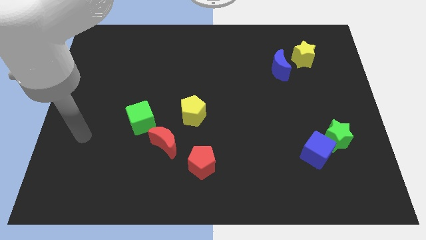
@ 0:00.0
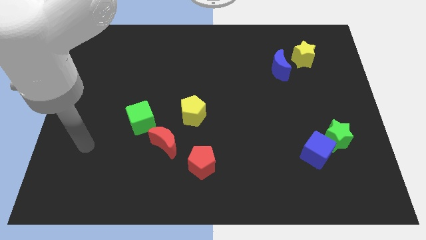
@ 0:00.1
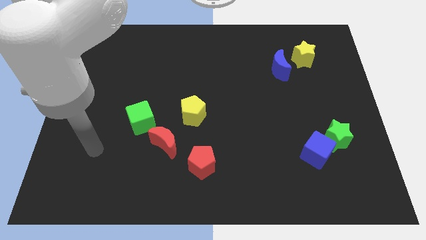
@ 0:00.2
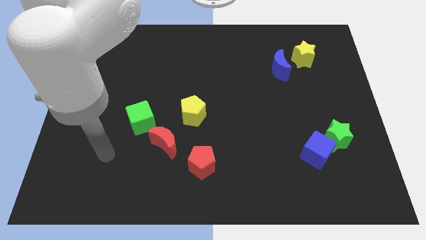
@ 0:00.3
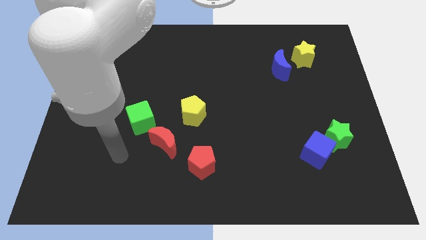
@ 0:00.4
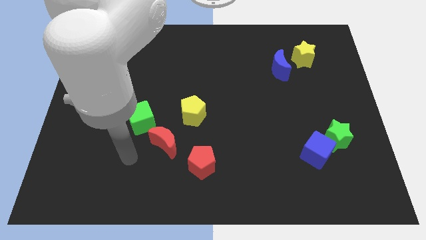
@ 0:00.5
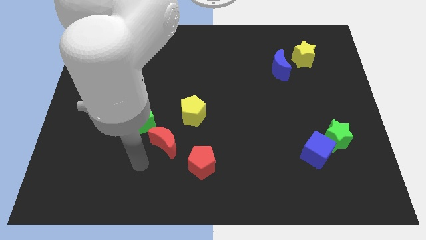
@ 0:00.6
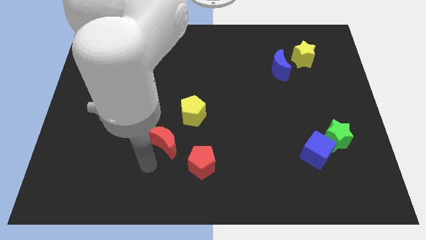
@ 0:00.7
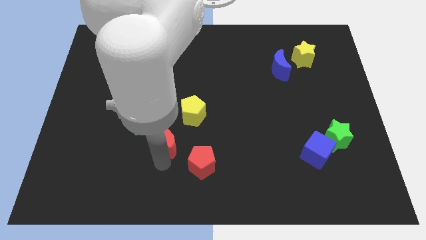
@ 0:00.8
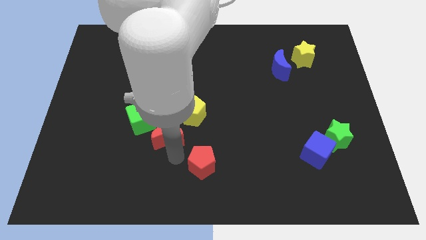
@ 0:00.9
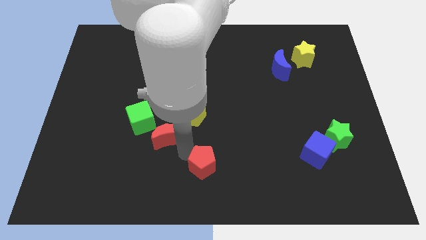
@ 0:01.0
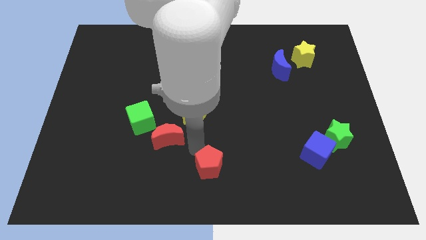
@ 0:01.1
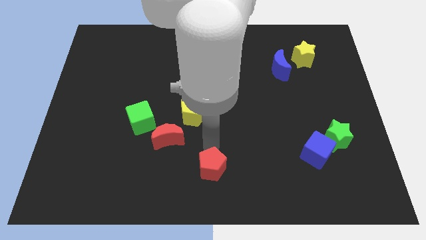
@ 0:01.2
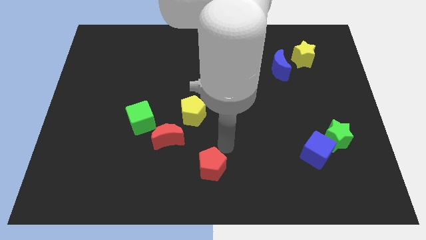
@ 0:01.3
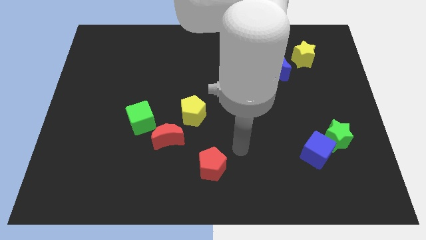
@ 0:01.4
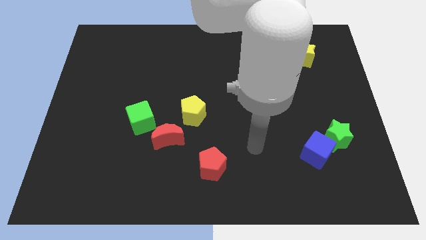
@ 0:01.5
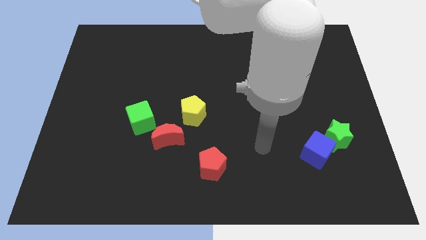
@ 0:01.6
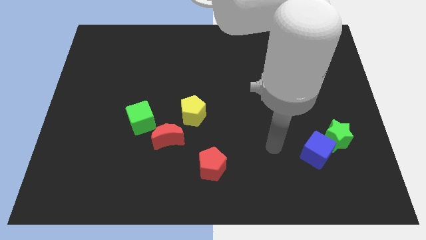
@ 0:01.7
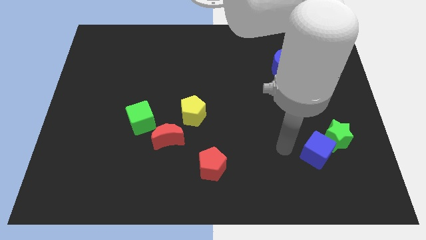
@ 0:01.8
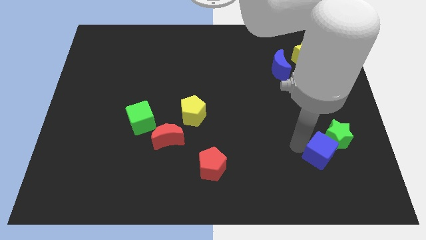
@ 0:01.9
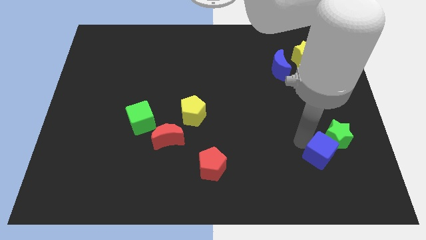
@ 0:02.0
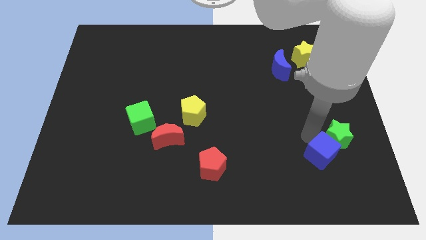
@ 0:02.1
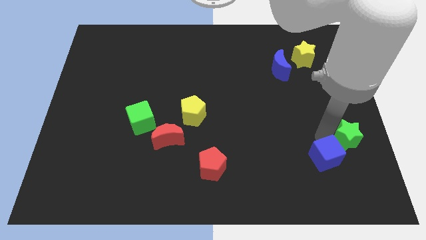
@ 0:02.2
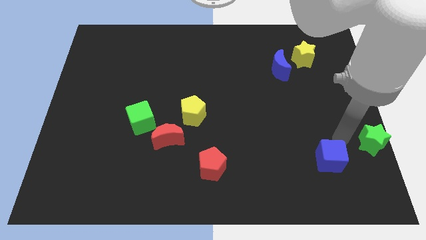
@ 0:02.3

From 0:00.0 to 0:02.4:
pull the blue cube apart from the green star

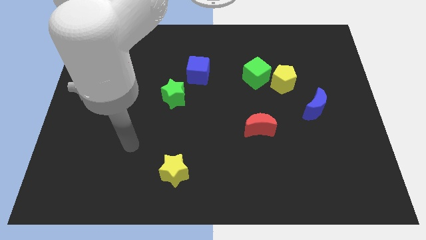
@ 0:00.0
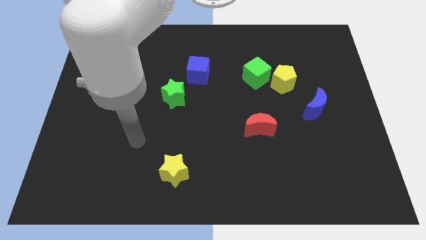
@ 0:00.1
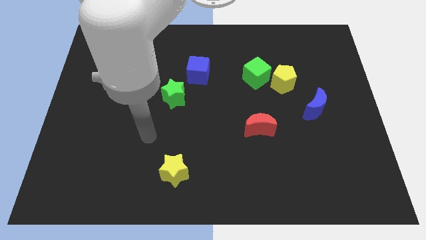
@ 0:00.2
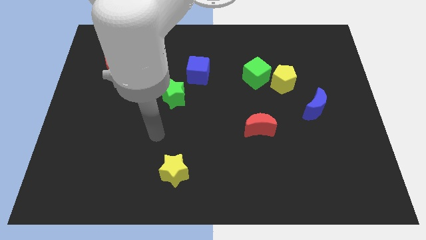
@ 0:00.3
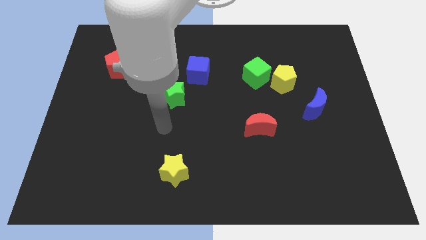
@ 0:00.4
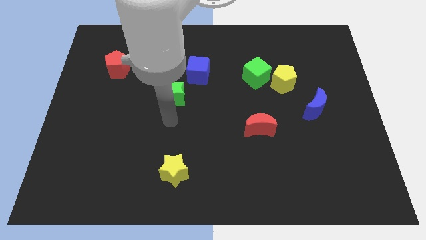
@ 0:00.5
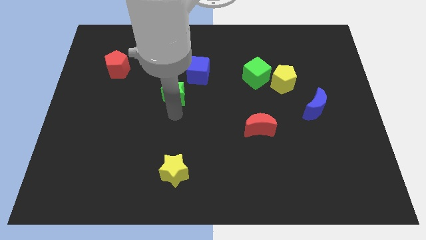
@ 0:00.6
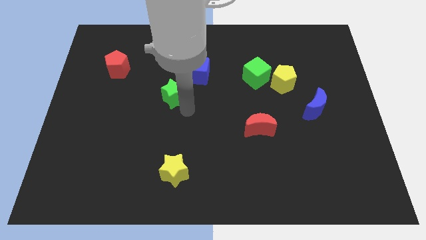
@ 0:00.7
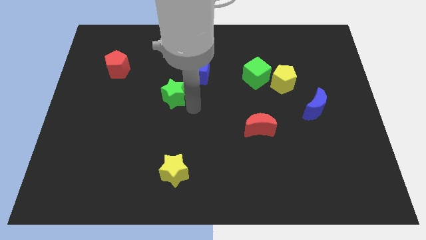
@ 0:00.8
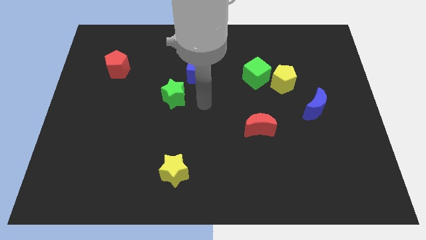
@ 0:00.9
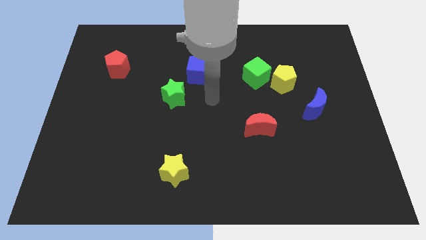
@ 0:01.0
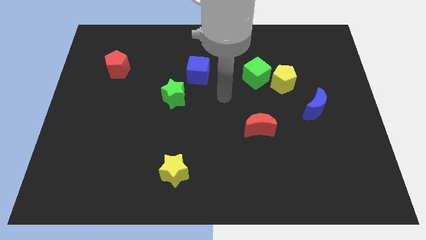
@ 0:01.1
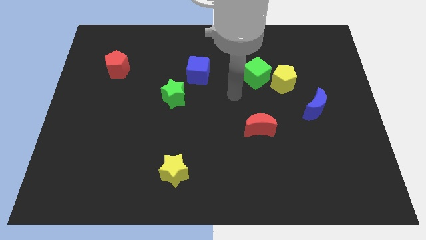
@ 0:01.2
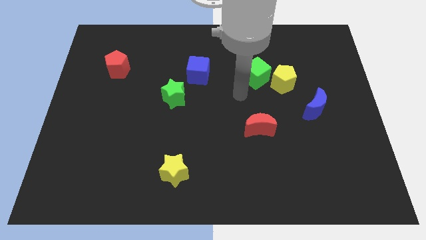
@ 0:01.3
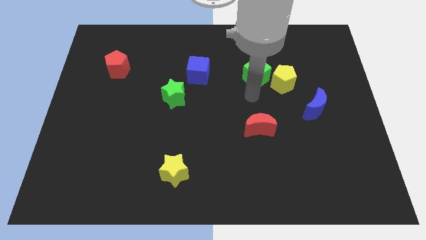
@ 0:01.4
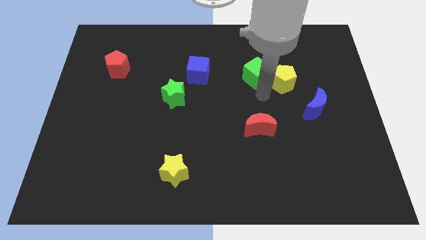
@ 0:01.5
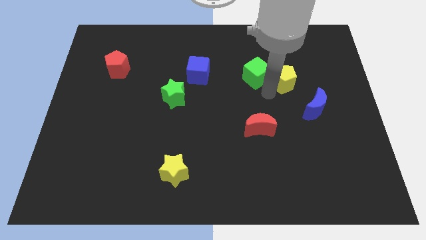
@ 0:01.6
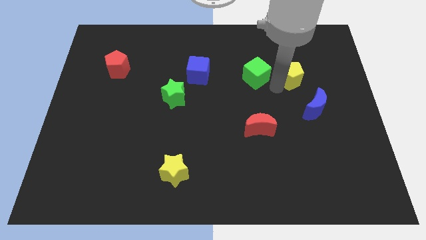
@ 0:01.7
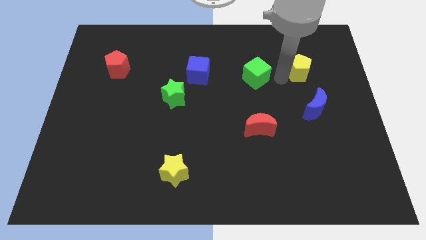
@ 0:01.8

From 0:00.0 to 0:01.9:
move the green cube away from the yellow pentagon

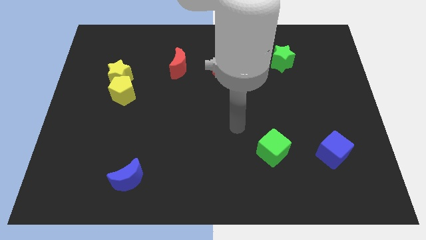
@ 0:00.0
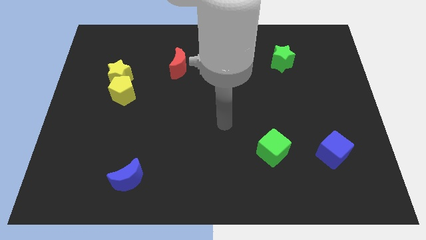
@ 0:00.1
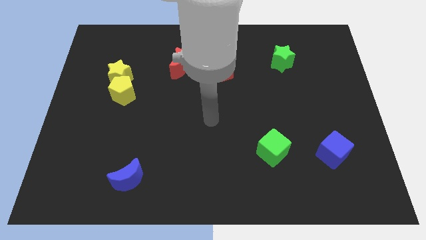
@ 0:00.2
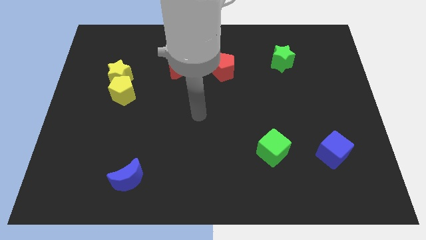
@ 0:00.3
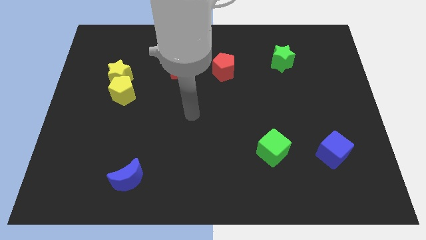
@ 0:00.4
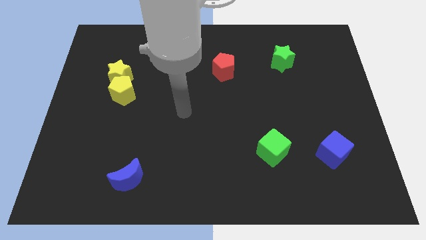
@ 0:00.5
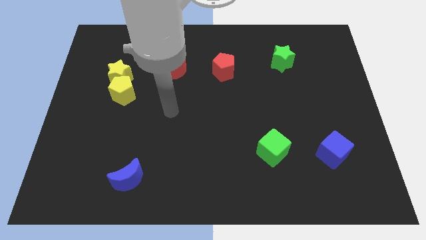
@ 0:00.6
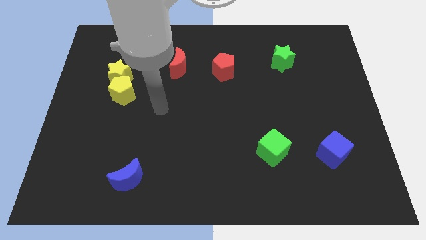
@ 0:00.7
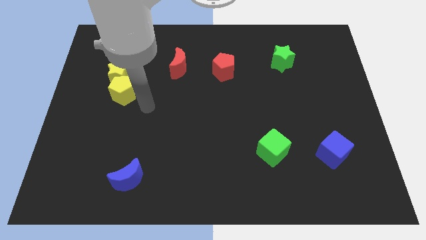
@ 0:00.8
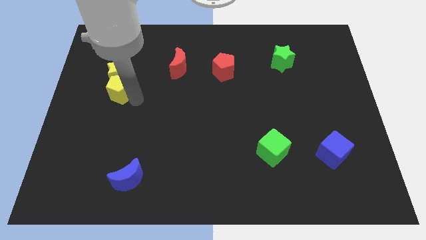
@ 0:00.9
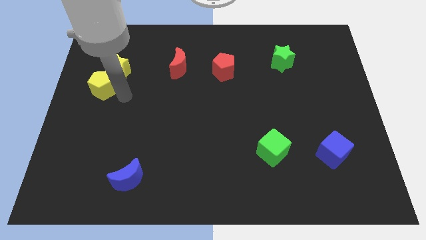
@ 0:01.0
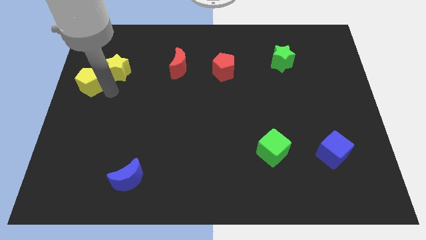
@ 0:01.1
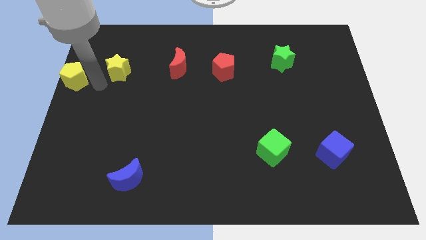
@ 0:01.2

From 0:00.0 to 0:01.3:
move the yellow star away from the yellow pentagon

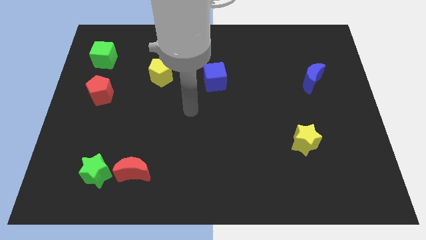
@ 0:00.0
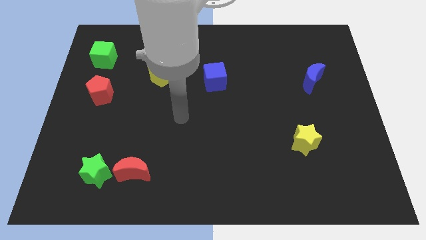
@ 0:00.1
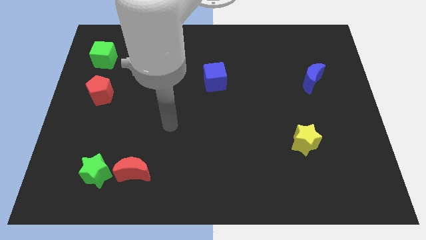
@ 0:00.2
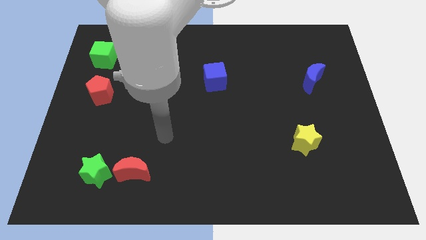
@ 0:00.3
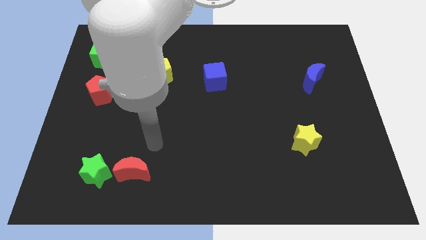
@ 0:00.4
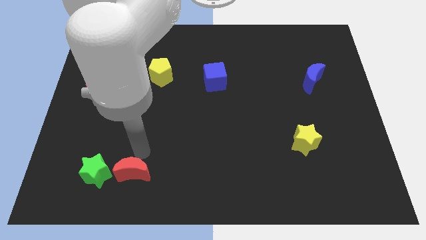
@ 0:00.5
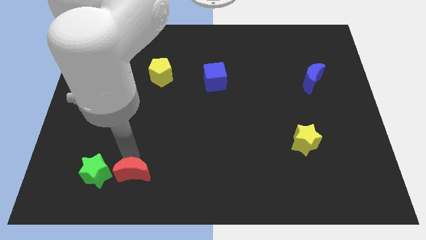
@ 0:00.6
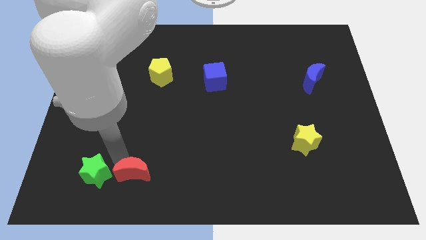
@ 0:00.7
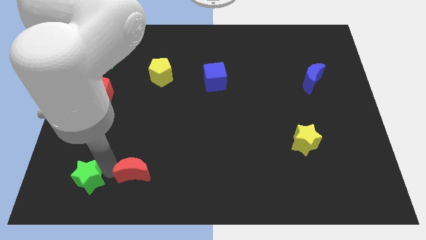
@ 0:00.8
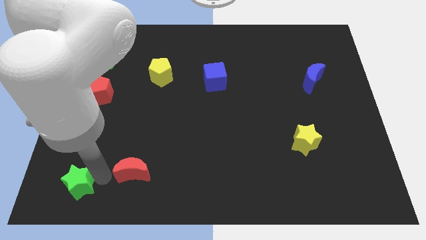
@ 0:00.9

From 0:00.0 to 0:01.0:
move the red moon away from the green star

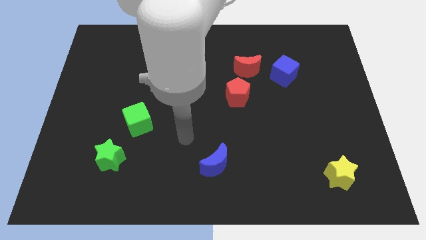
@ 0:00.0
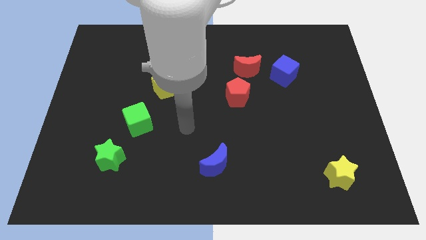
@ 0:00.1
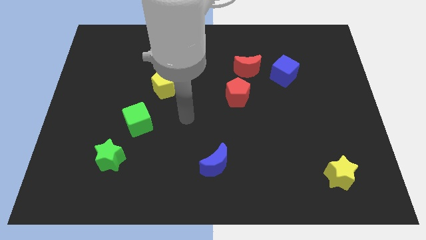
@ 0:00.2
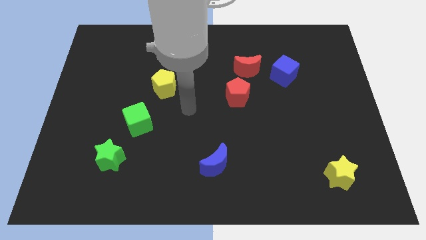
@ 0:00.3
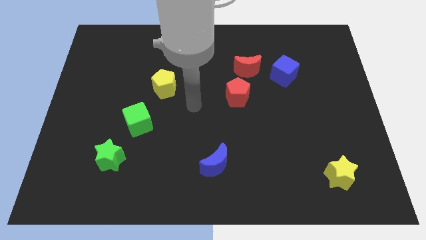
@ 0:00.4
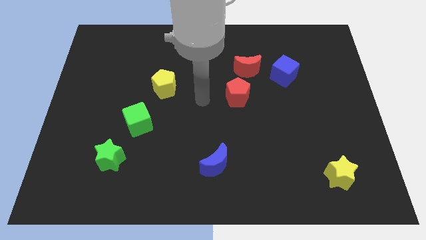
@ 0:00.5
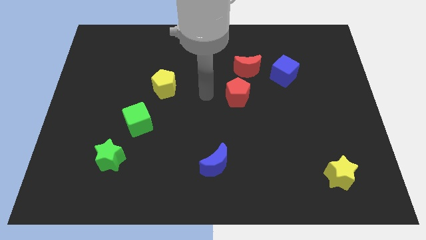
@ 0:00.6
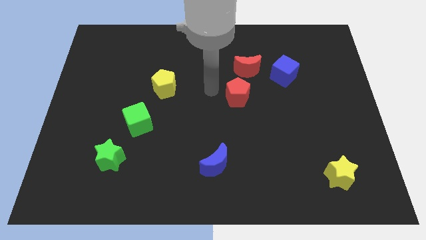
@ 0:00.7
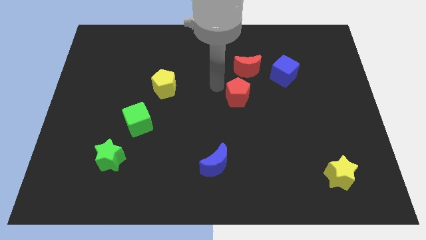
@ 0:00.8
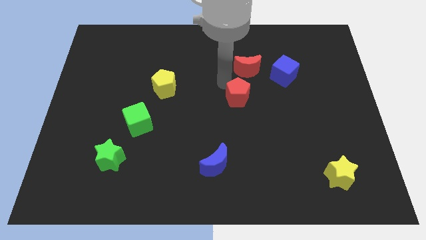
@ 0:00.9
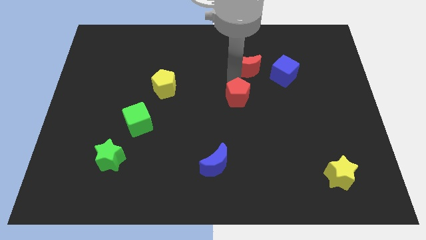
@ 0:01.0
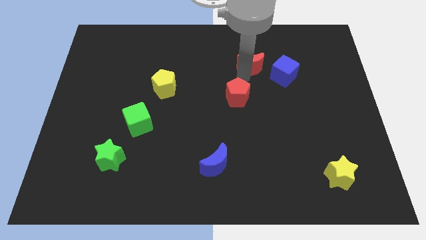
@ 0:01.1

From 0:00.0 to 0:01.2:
separate the red pentagon from the red moon

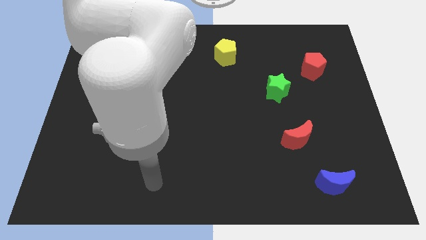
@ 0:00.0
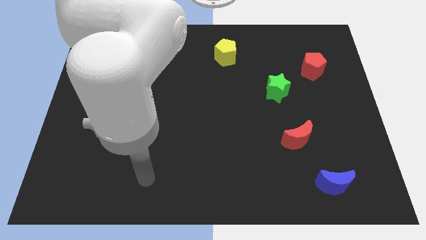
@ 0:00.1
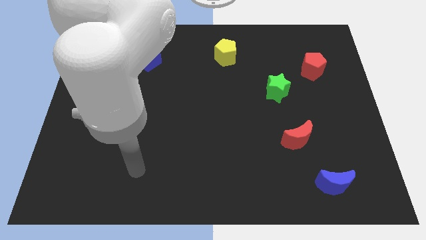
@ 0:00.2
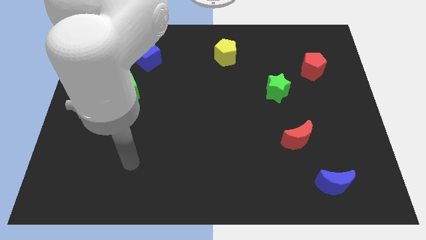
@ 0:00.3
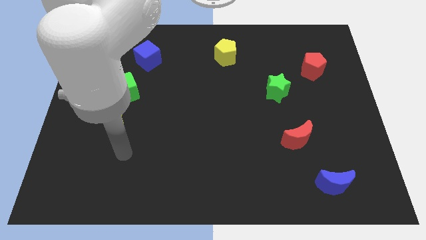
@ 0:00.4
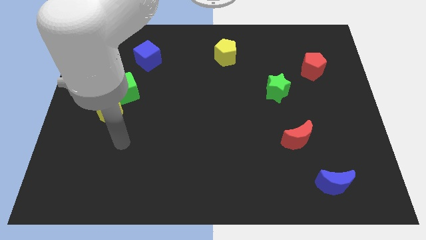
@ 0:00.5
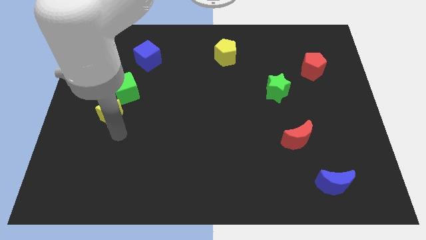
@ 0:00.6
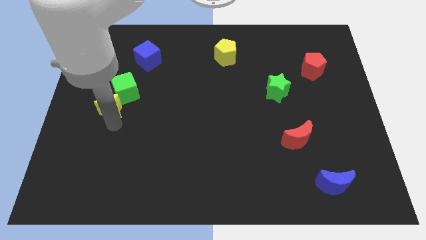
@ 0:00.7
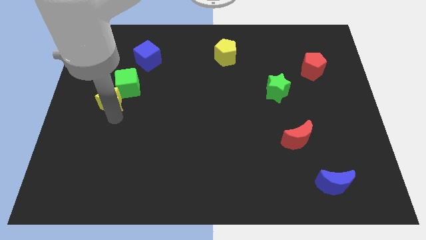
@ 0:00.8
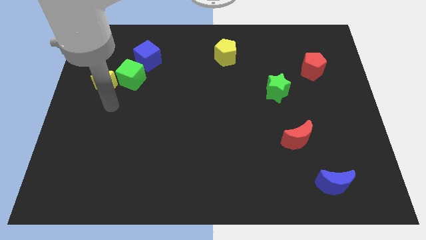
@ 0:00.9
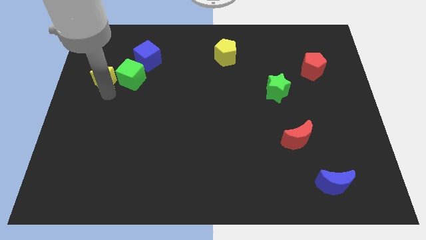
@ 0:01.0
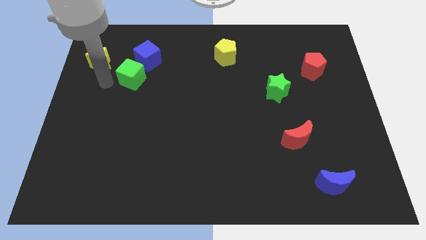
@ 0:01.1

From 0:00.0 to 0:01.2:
pull the green cube apart from the yellow star

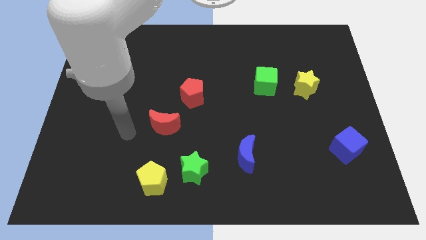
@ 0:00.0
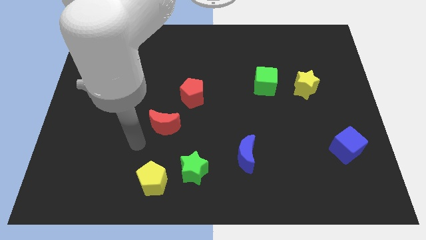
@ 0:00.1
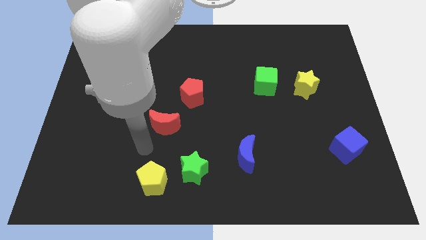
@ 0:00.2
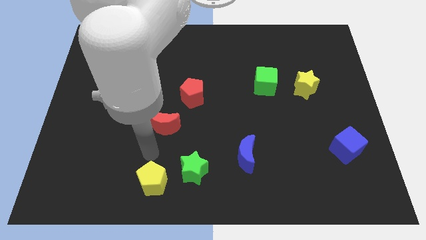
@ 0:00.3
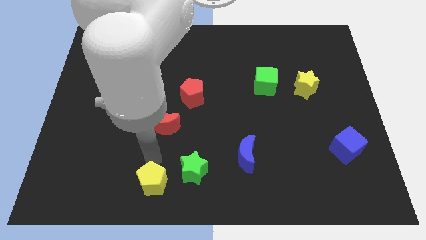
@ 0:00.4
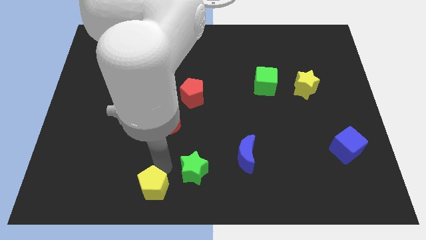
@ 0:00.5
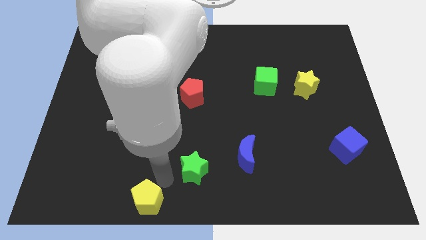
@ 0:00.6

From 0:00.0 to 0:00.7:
pull the green star apart from the yellow pentagon
